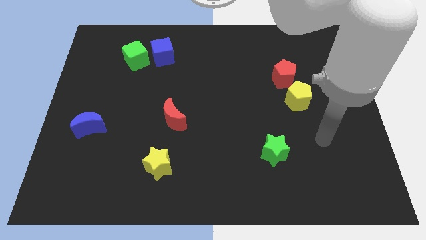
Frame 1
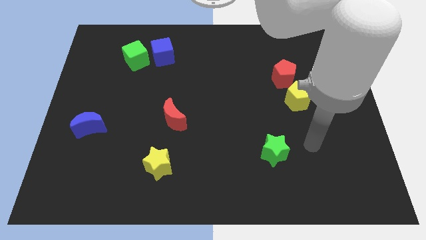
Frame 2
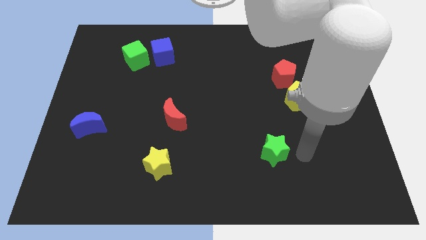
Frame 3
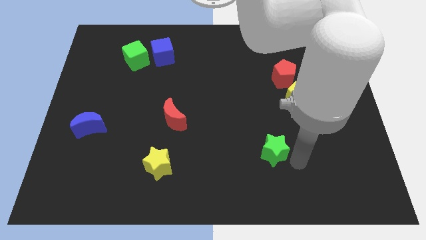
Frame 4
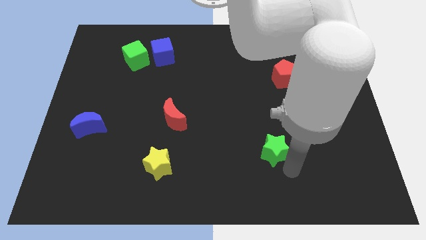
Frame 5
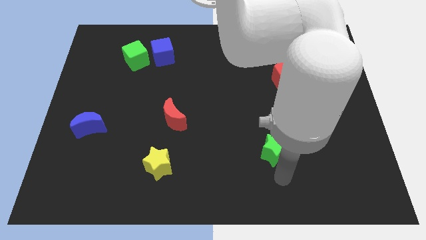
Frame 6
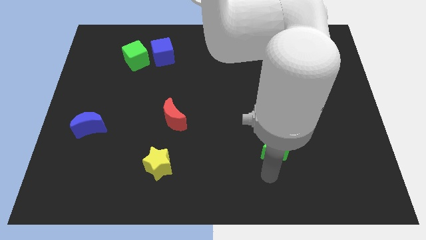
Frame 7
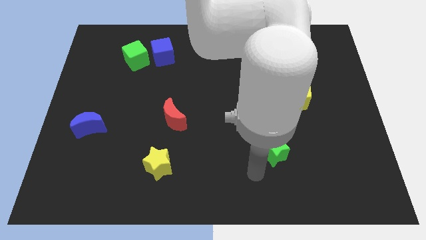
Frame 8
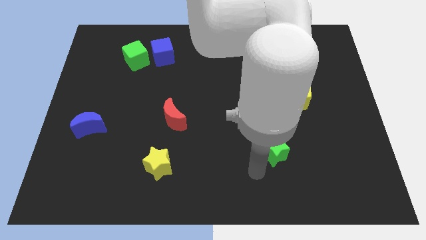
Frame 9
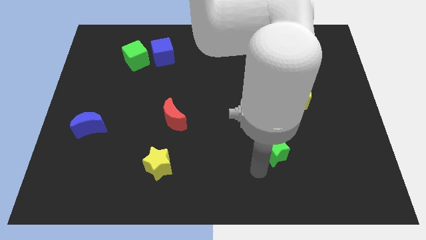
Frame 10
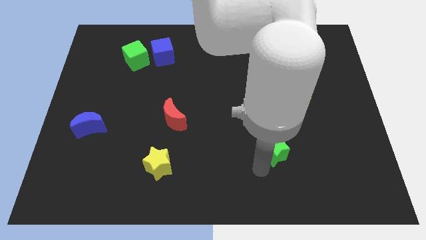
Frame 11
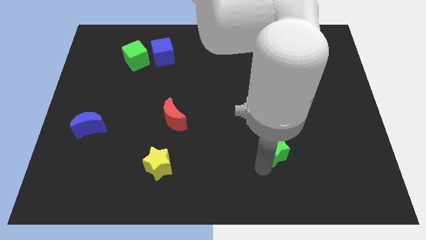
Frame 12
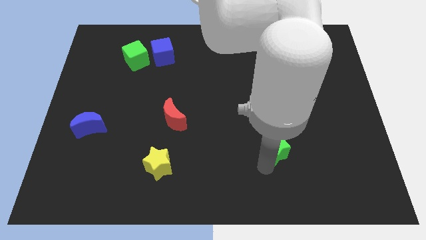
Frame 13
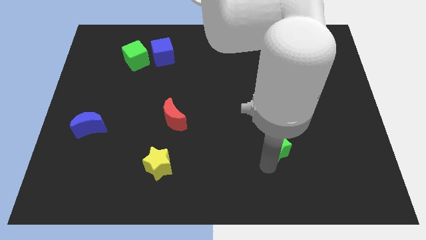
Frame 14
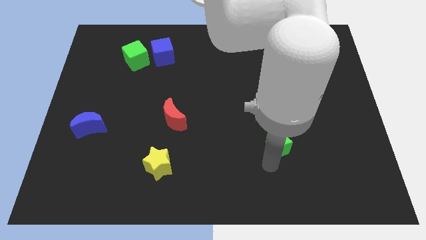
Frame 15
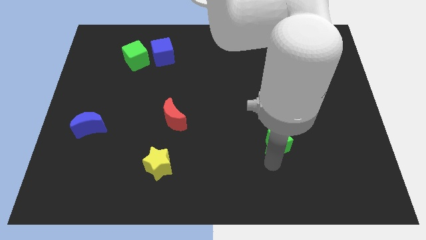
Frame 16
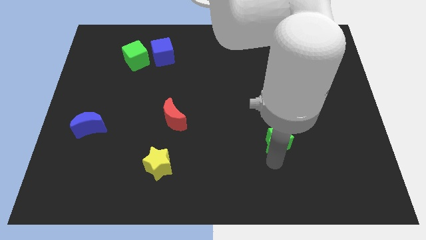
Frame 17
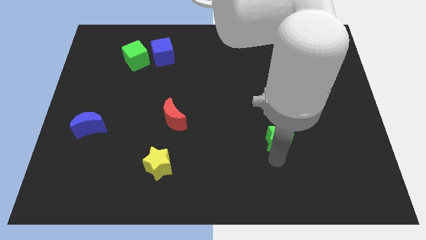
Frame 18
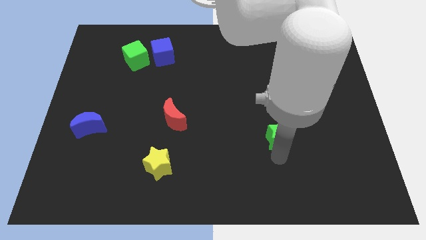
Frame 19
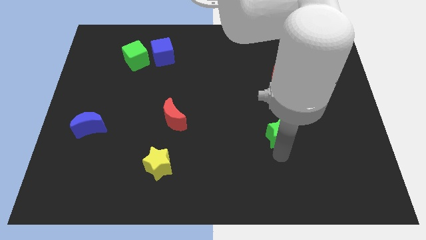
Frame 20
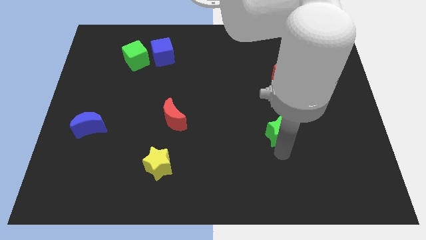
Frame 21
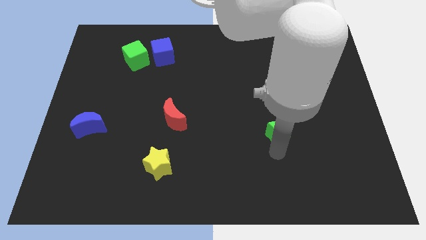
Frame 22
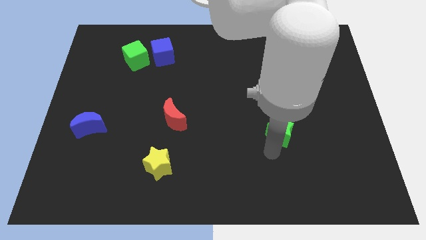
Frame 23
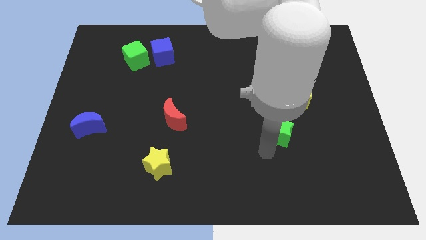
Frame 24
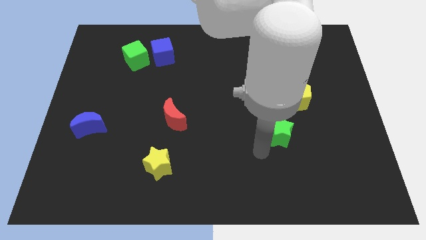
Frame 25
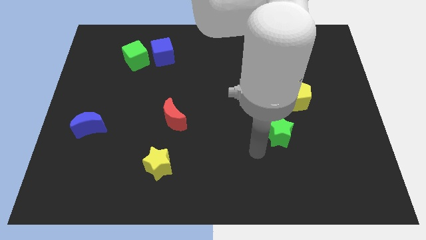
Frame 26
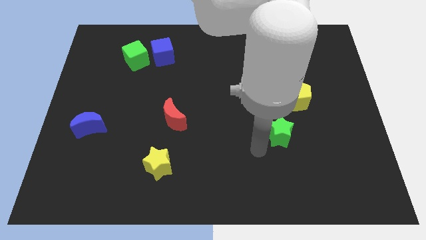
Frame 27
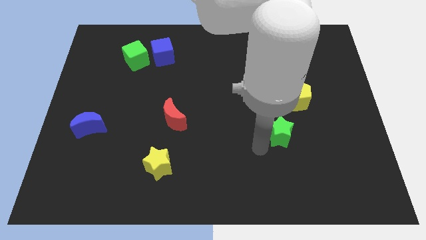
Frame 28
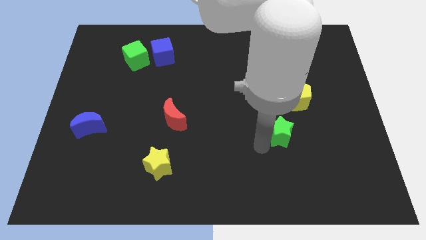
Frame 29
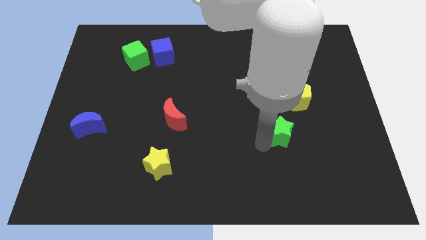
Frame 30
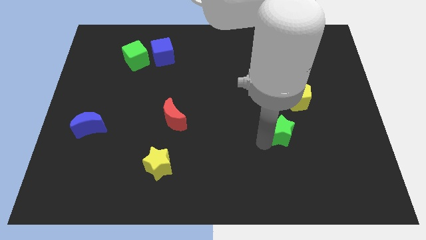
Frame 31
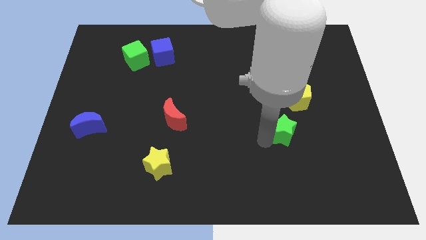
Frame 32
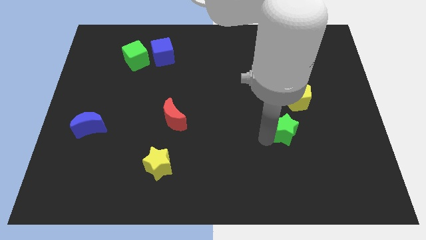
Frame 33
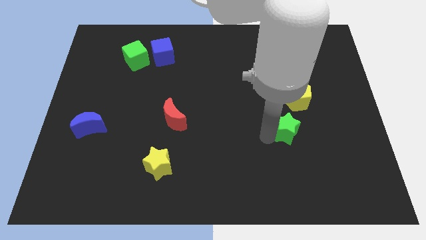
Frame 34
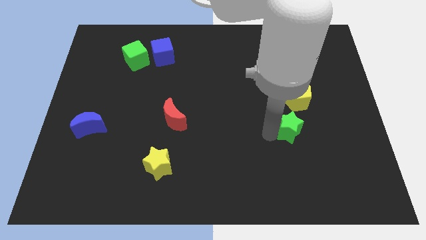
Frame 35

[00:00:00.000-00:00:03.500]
slightly move the green star diagonally up and right

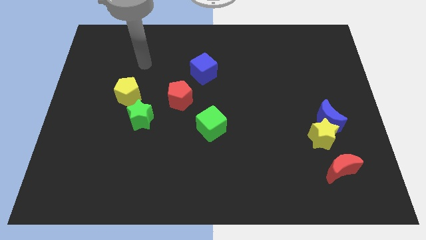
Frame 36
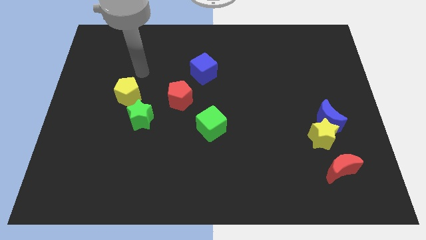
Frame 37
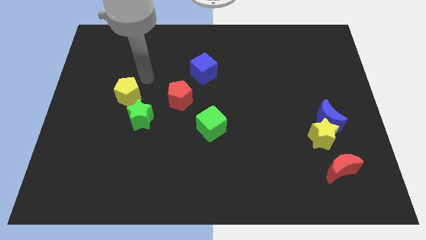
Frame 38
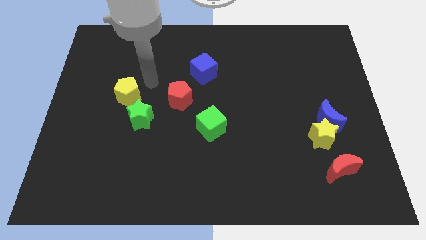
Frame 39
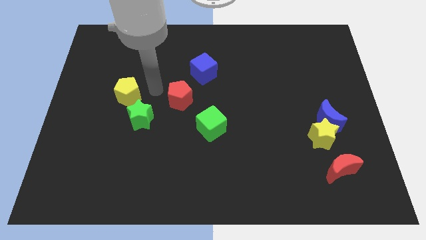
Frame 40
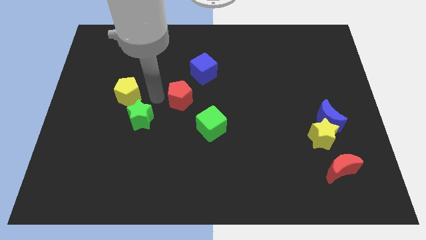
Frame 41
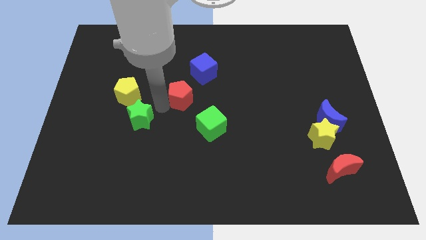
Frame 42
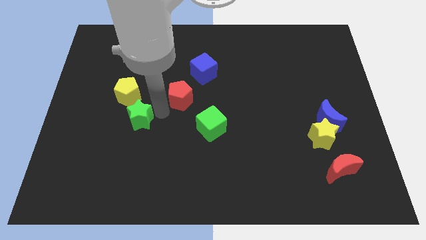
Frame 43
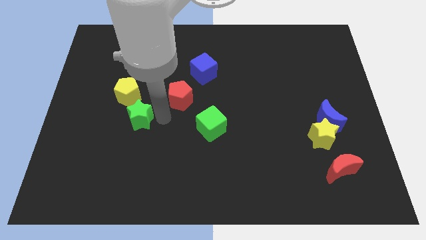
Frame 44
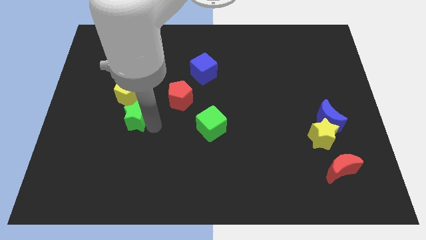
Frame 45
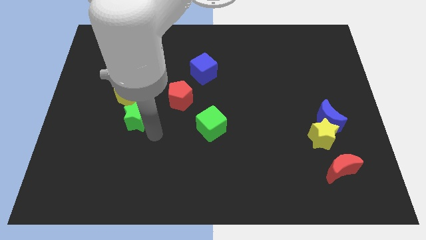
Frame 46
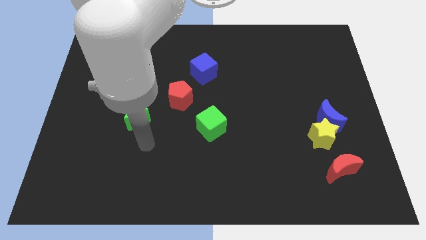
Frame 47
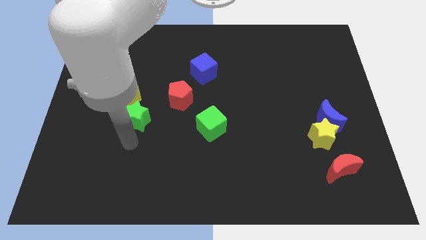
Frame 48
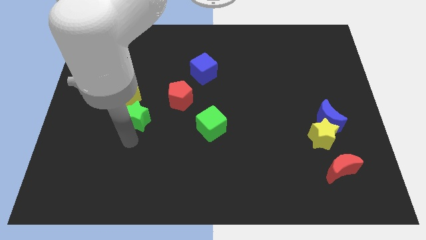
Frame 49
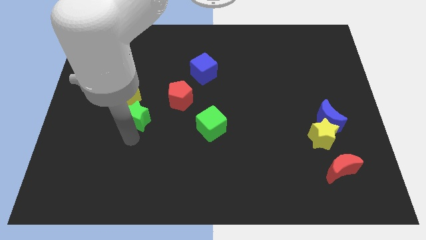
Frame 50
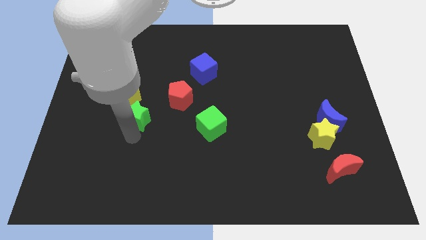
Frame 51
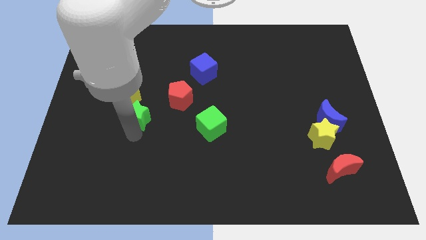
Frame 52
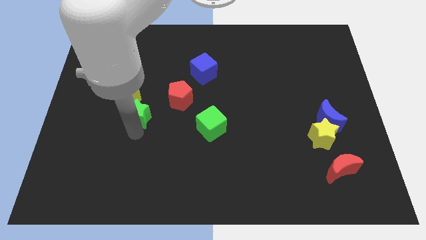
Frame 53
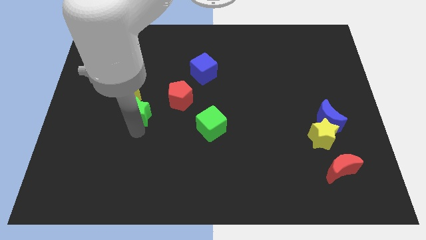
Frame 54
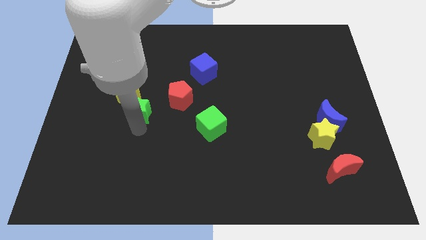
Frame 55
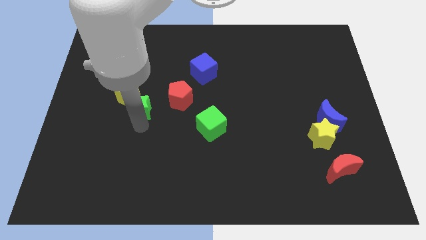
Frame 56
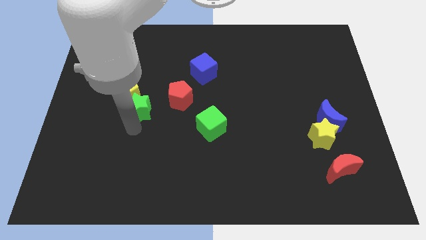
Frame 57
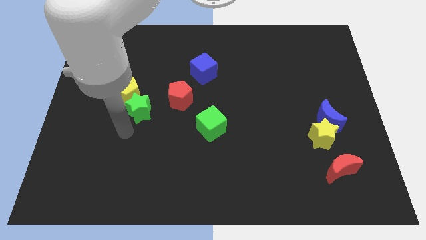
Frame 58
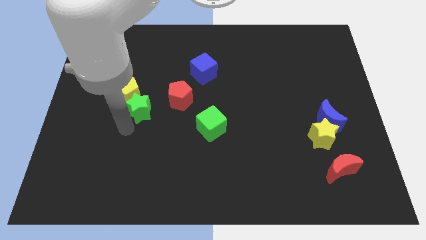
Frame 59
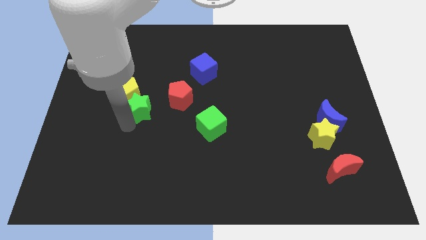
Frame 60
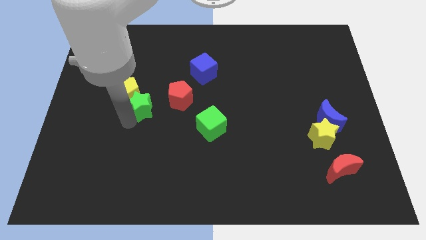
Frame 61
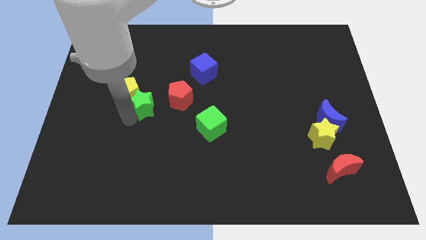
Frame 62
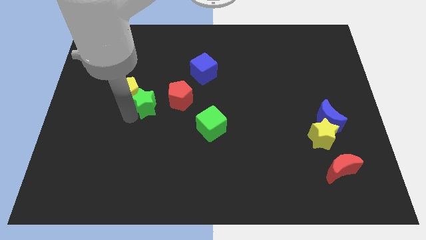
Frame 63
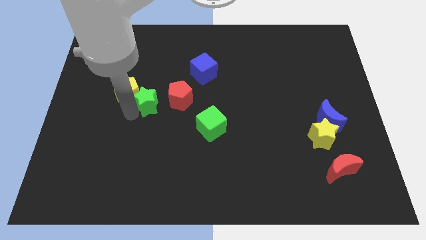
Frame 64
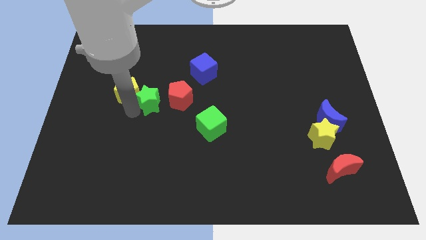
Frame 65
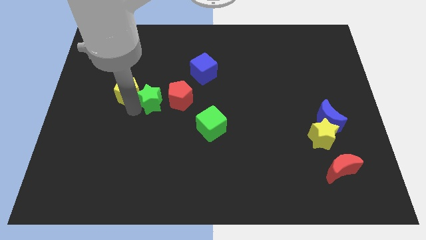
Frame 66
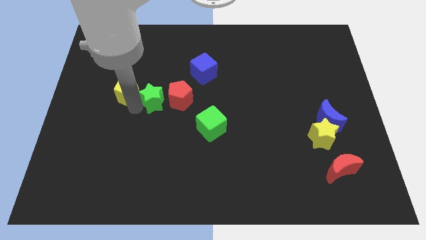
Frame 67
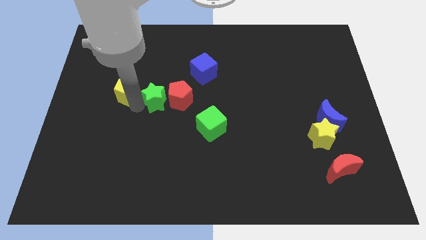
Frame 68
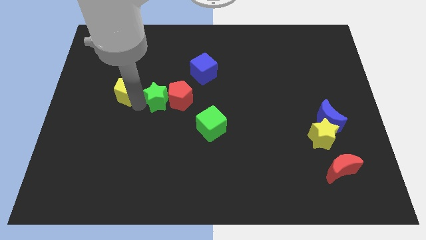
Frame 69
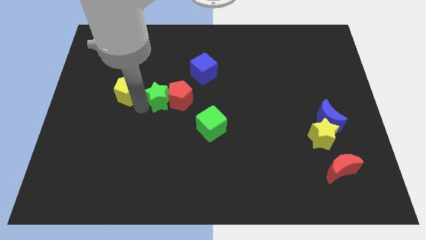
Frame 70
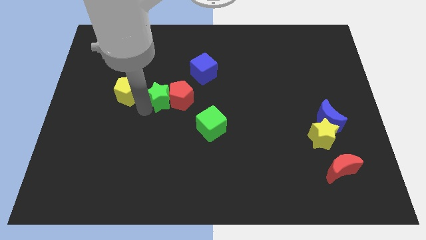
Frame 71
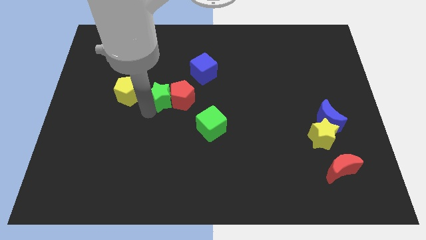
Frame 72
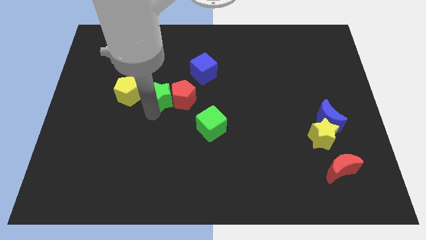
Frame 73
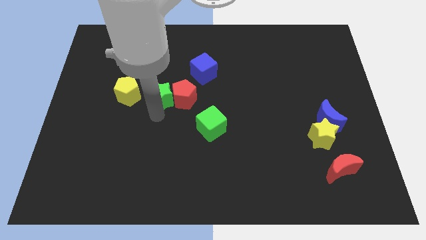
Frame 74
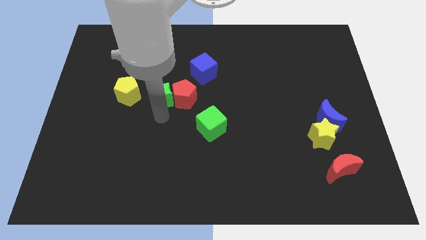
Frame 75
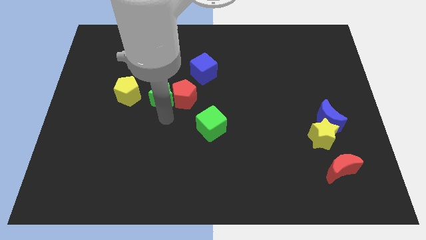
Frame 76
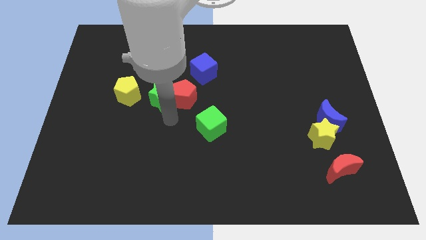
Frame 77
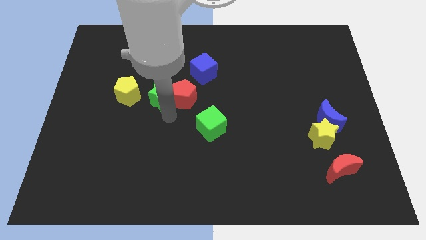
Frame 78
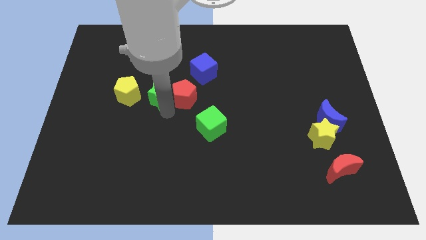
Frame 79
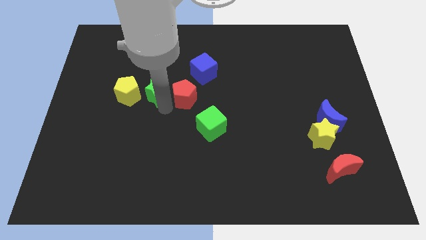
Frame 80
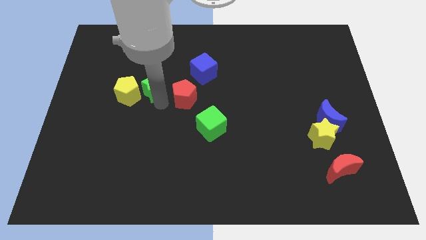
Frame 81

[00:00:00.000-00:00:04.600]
slightly push the green star up
